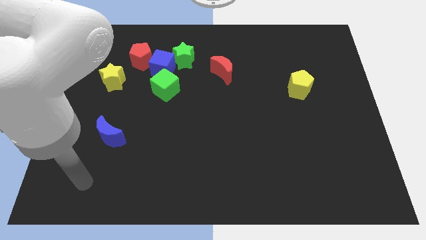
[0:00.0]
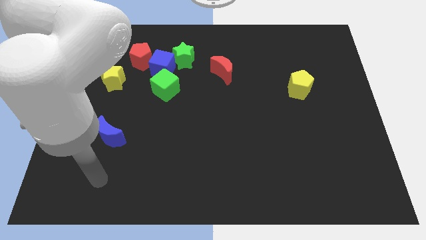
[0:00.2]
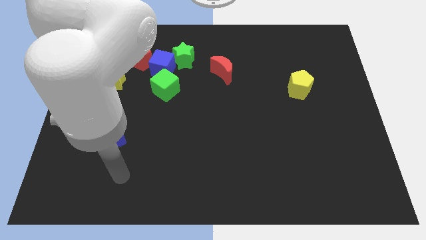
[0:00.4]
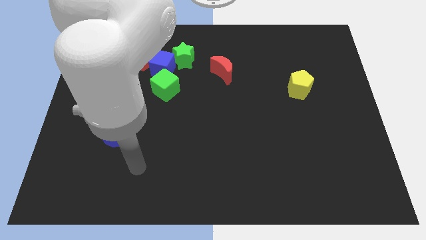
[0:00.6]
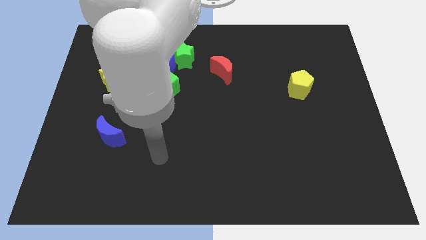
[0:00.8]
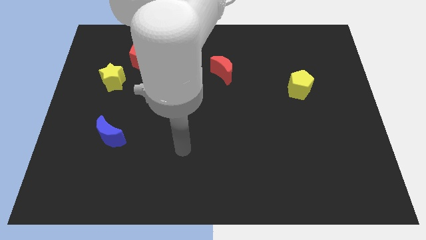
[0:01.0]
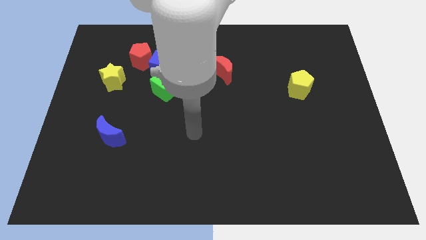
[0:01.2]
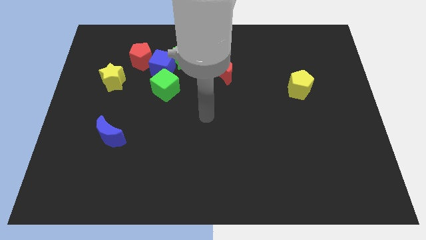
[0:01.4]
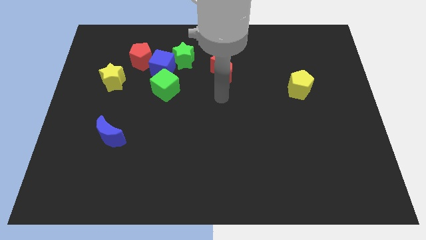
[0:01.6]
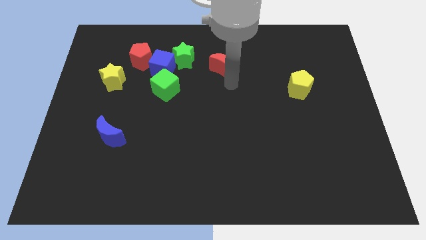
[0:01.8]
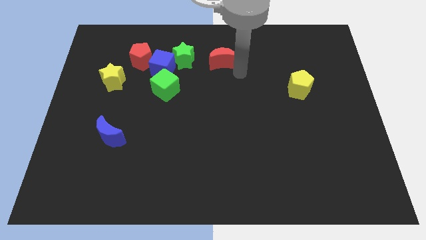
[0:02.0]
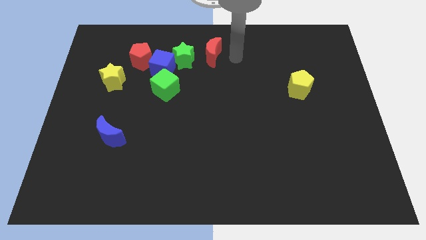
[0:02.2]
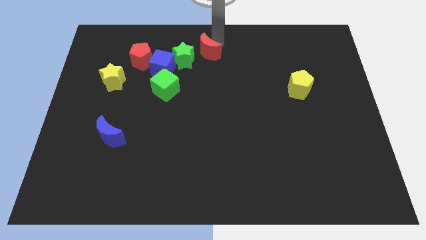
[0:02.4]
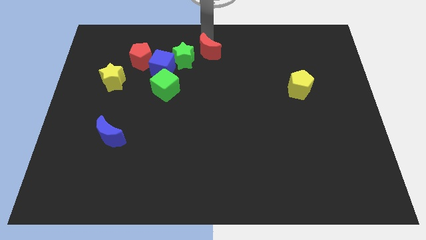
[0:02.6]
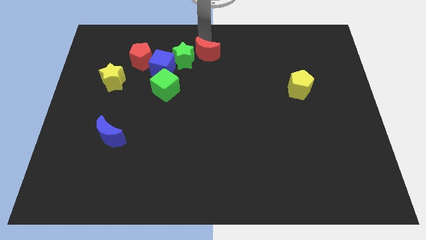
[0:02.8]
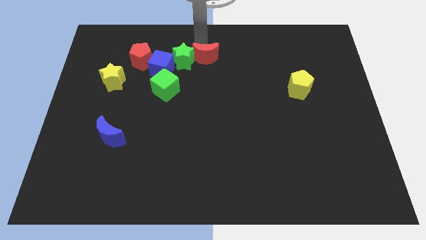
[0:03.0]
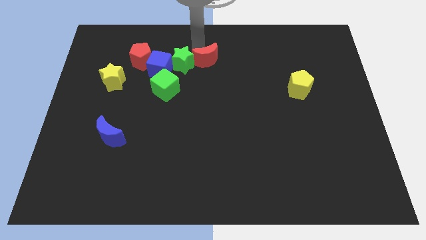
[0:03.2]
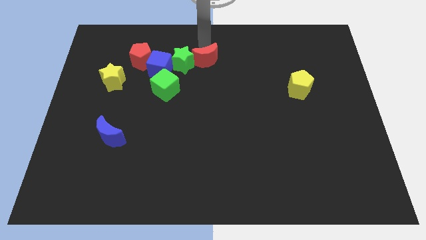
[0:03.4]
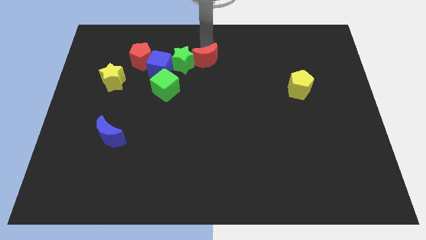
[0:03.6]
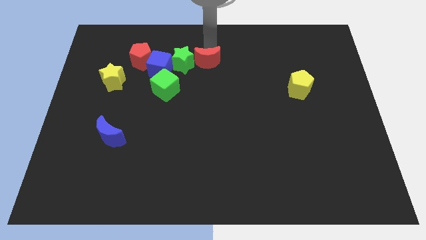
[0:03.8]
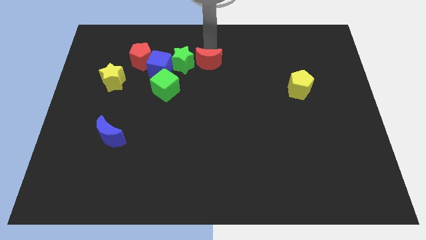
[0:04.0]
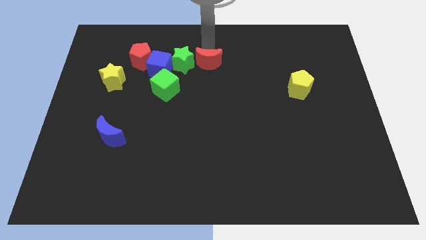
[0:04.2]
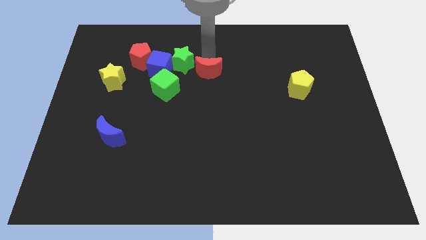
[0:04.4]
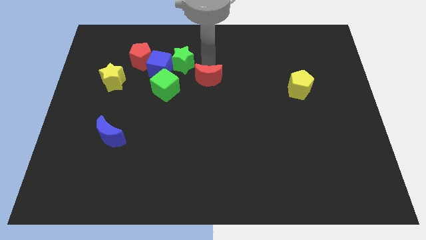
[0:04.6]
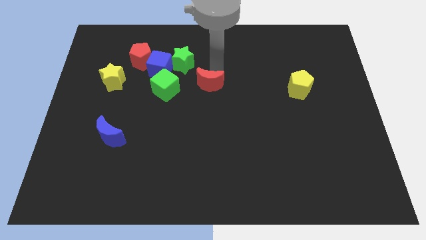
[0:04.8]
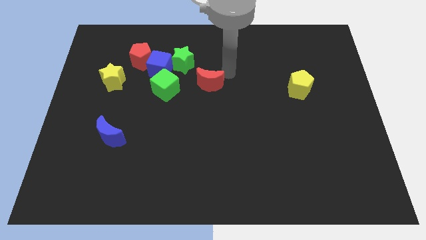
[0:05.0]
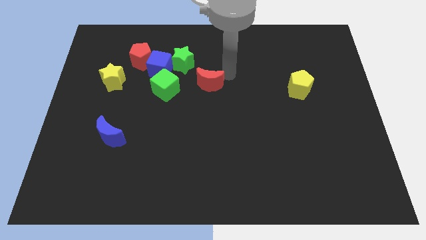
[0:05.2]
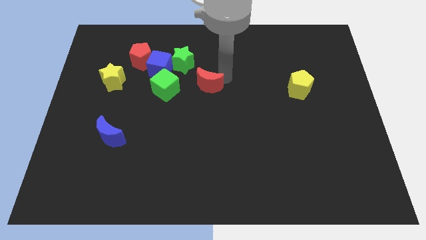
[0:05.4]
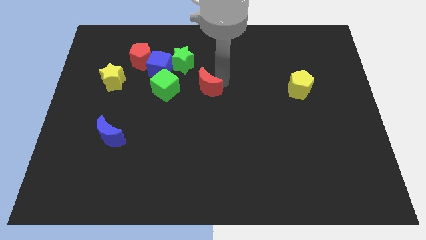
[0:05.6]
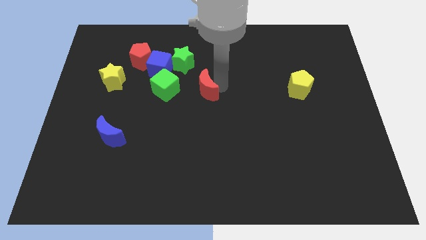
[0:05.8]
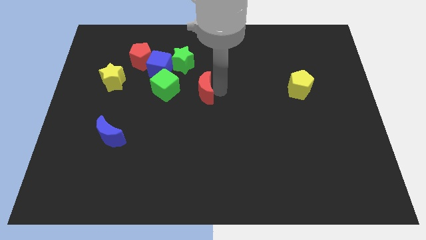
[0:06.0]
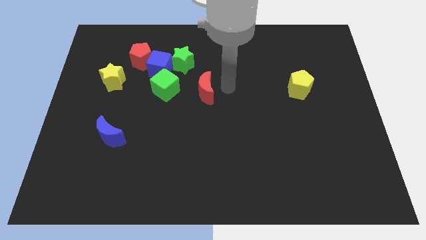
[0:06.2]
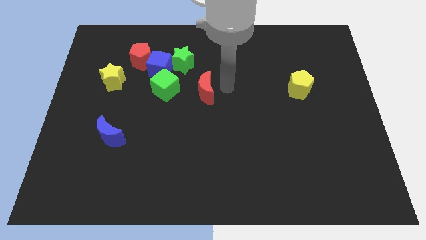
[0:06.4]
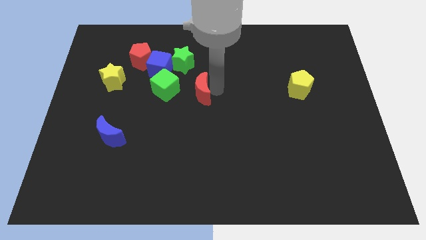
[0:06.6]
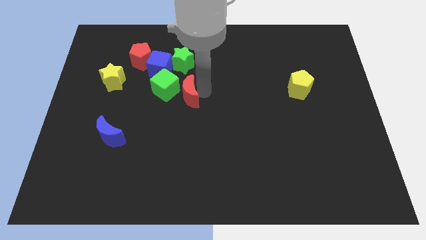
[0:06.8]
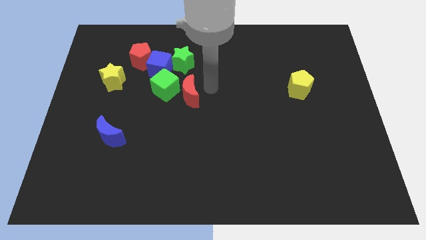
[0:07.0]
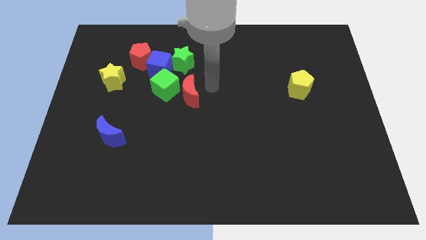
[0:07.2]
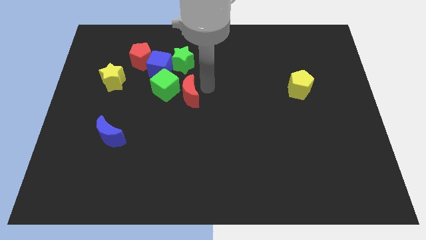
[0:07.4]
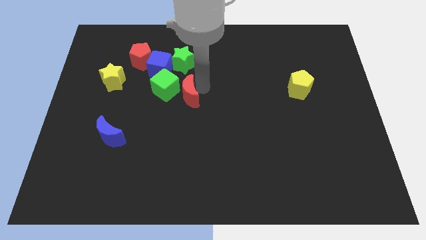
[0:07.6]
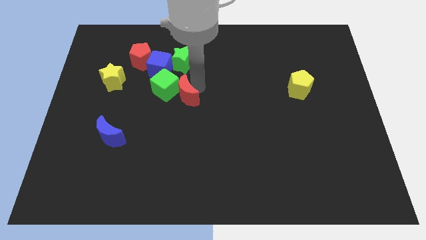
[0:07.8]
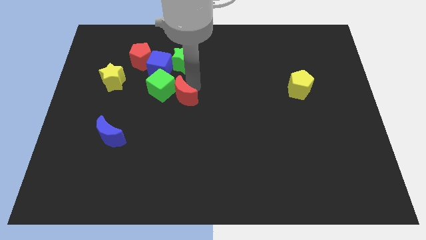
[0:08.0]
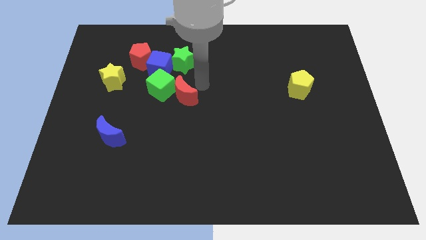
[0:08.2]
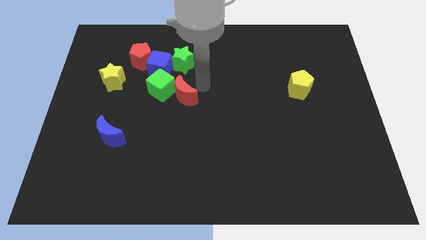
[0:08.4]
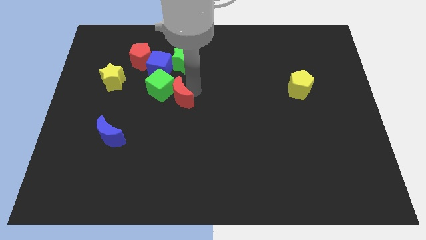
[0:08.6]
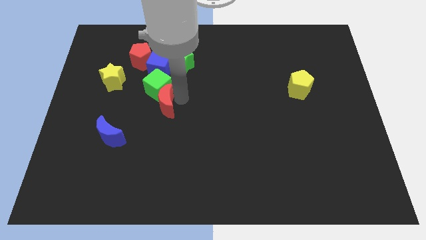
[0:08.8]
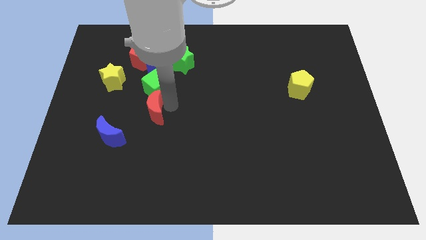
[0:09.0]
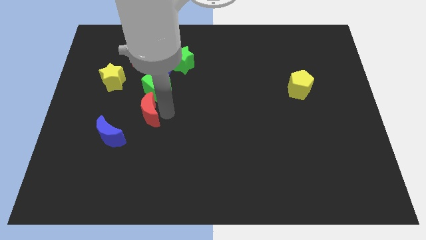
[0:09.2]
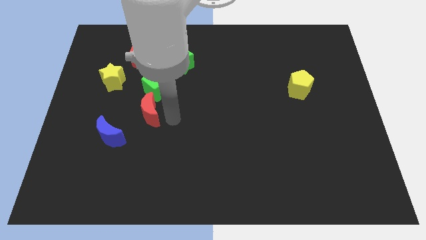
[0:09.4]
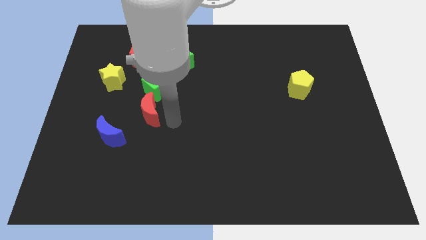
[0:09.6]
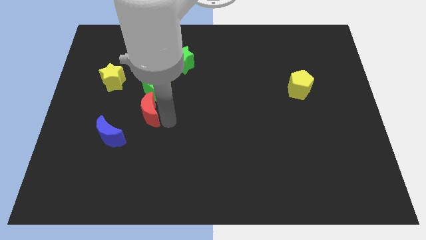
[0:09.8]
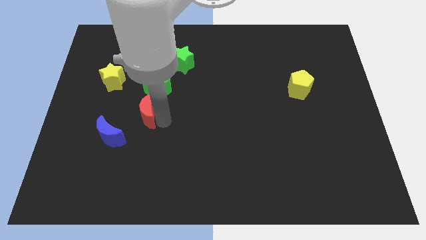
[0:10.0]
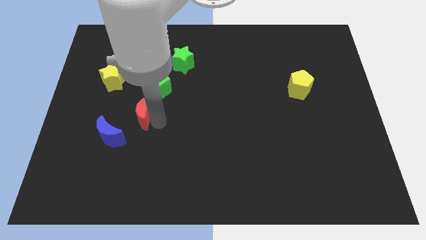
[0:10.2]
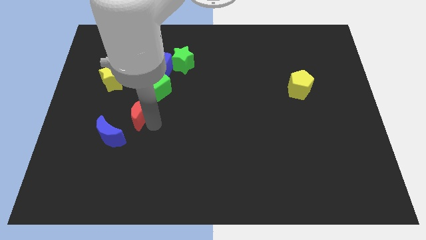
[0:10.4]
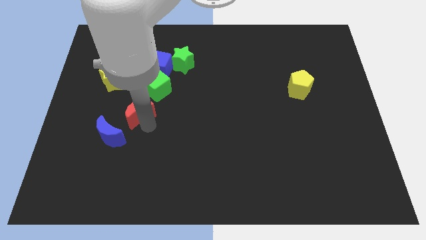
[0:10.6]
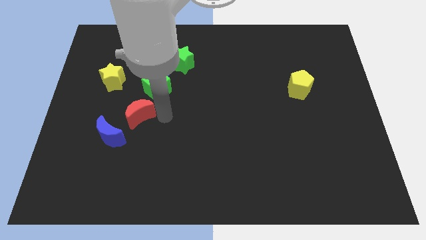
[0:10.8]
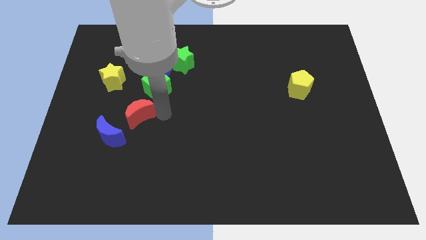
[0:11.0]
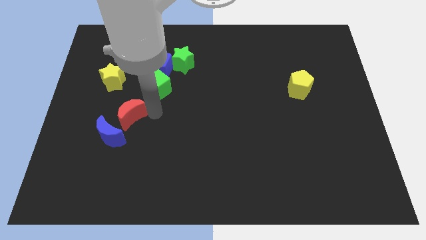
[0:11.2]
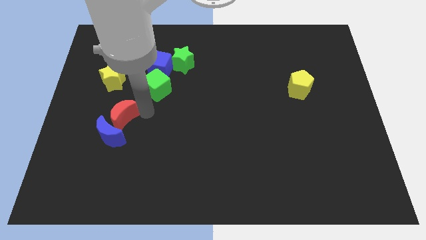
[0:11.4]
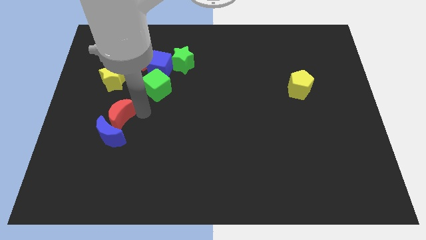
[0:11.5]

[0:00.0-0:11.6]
put the red moon diagonally up and to the left of the blue moon

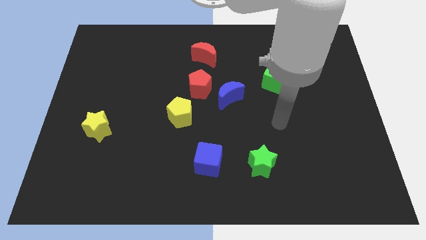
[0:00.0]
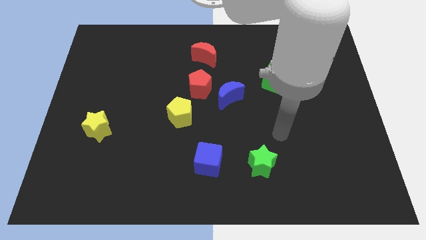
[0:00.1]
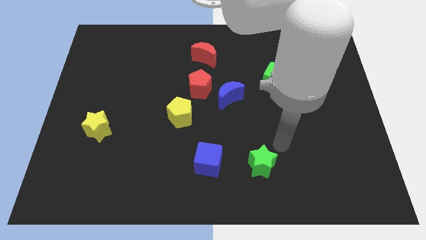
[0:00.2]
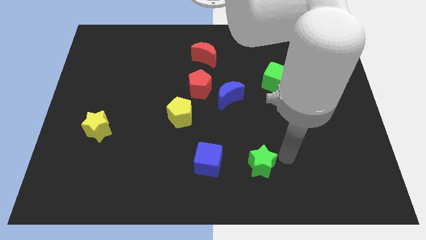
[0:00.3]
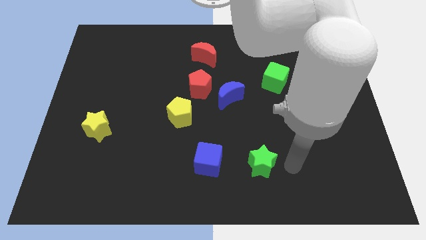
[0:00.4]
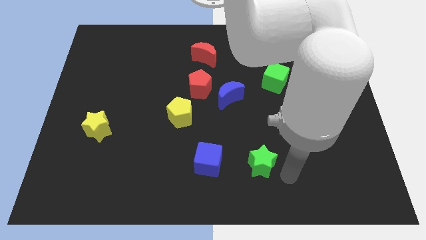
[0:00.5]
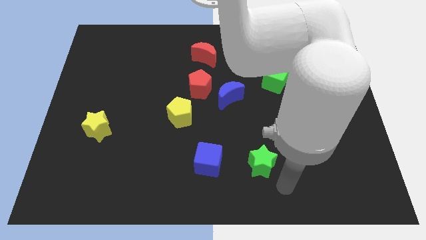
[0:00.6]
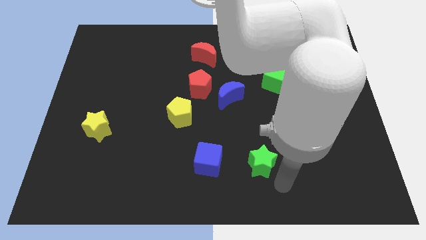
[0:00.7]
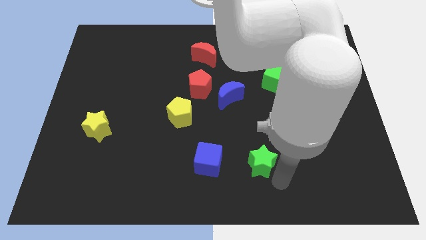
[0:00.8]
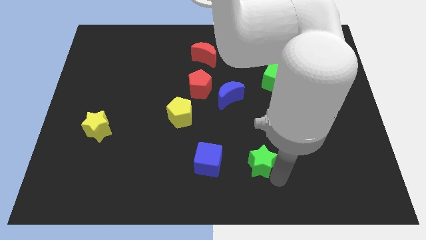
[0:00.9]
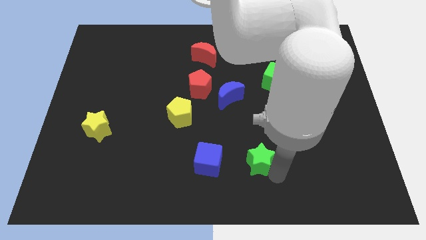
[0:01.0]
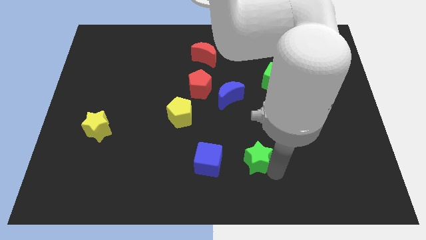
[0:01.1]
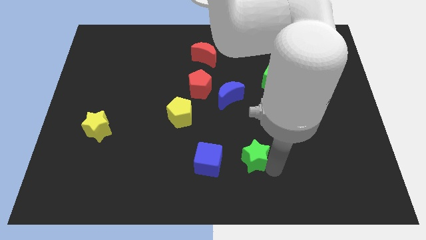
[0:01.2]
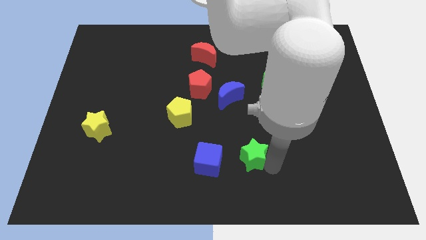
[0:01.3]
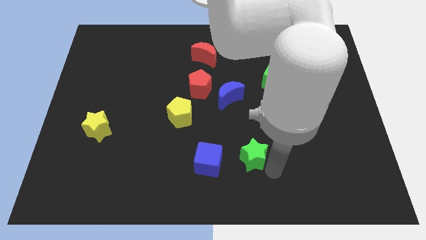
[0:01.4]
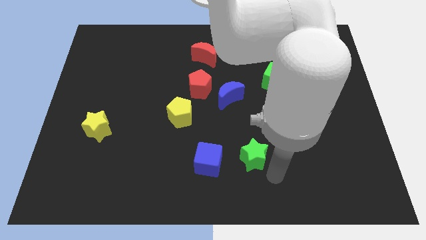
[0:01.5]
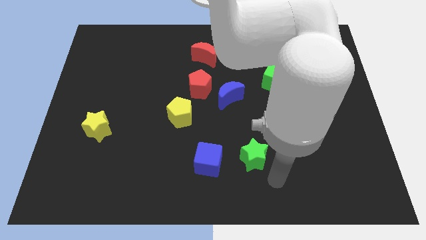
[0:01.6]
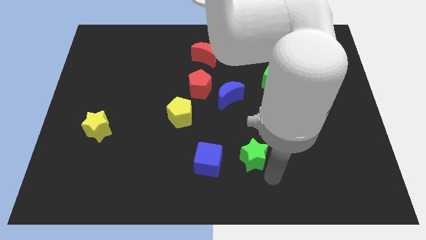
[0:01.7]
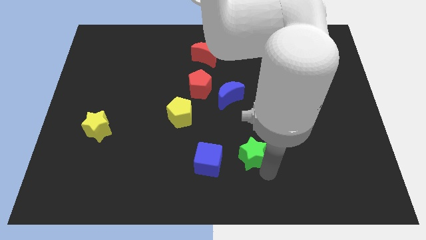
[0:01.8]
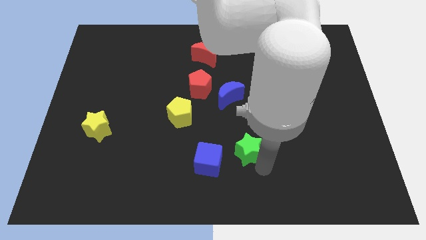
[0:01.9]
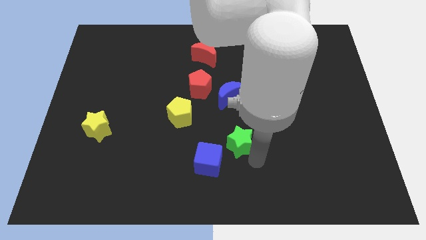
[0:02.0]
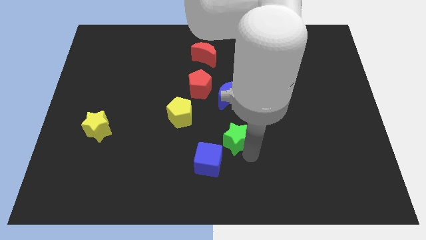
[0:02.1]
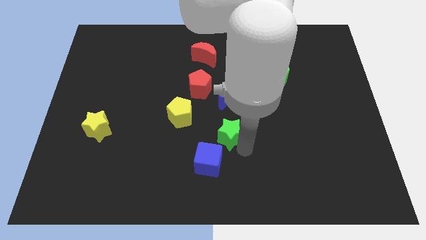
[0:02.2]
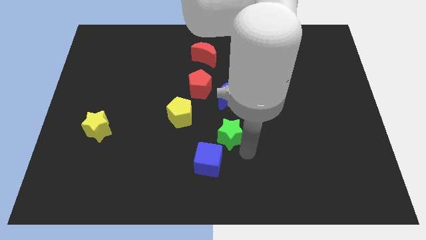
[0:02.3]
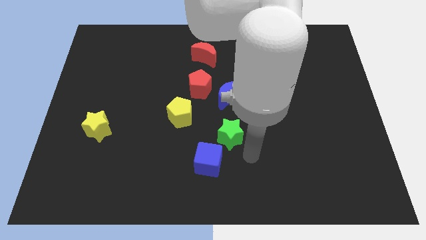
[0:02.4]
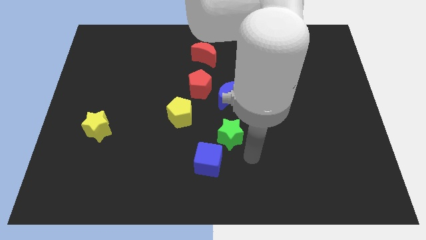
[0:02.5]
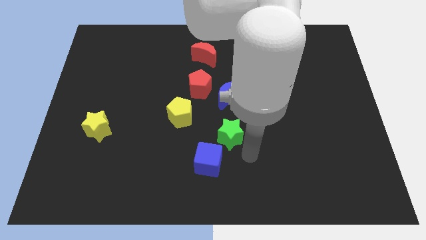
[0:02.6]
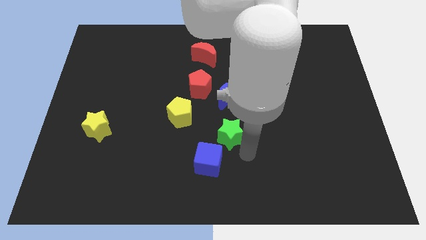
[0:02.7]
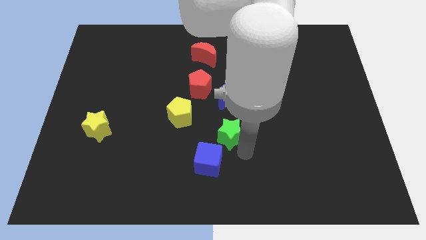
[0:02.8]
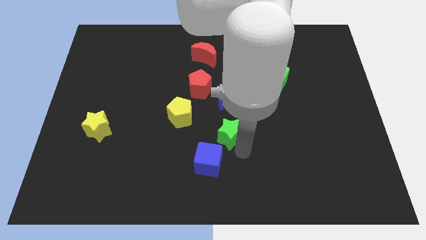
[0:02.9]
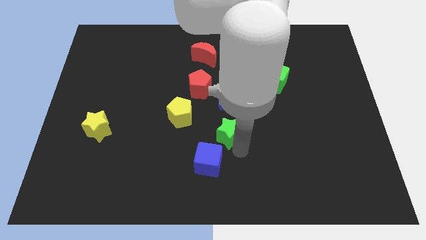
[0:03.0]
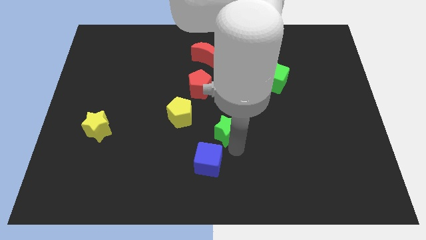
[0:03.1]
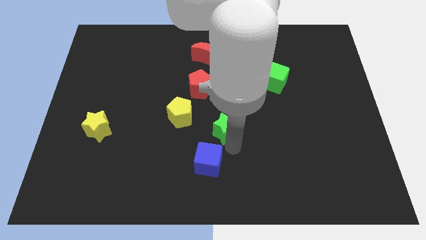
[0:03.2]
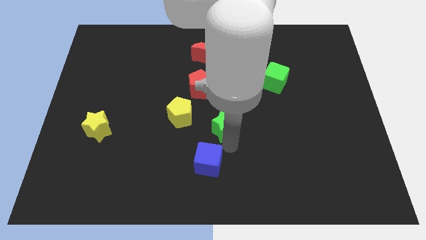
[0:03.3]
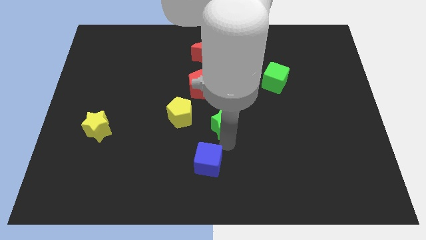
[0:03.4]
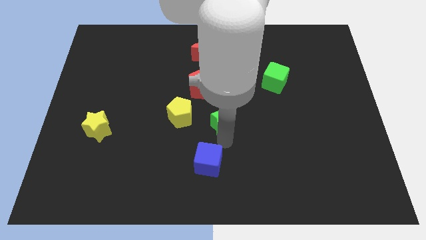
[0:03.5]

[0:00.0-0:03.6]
move the green star to the bottom left of the blue moon
